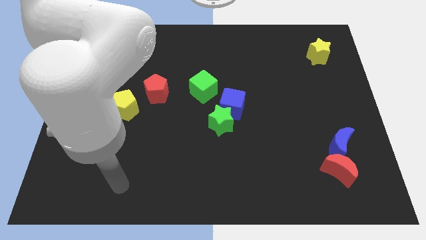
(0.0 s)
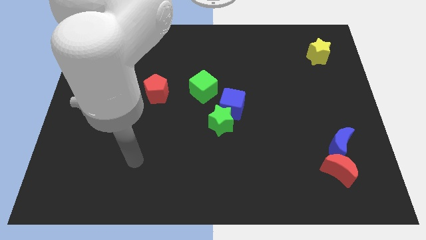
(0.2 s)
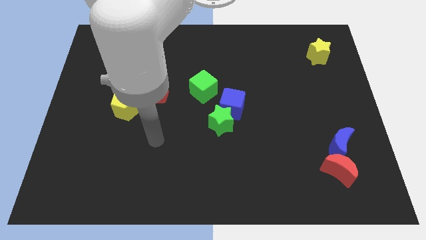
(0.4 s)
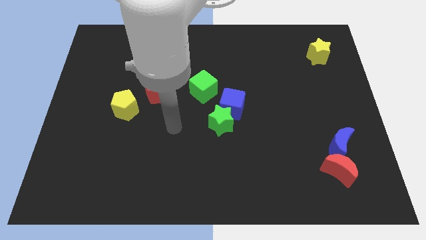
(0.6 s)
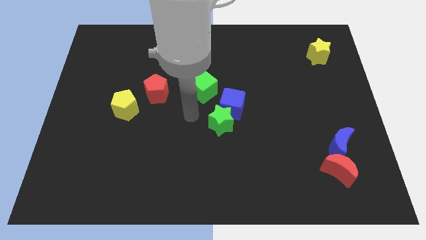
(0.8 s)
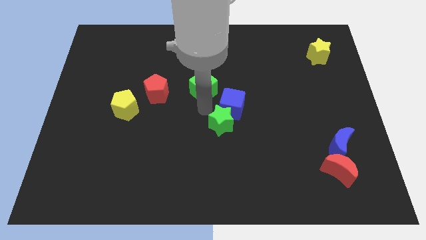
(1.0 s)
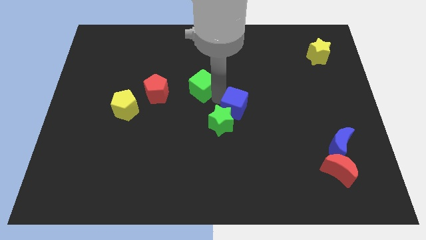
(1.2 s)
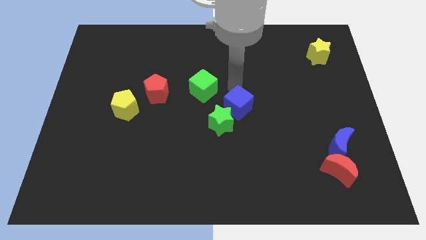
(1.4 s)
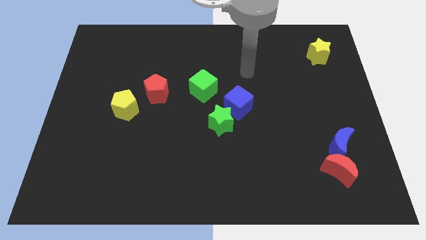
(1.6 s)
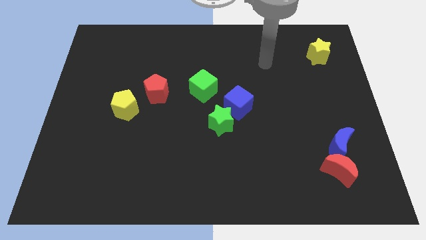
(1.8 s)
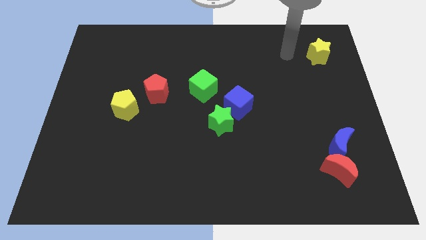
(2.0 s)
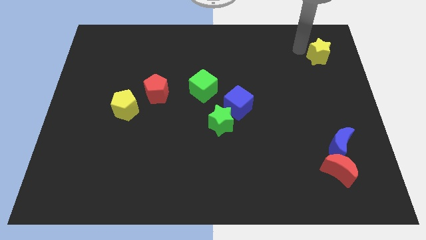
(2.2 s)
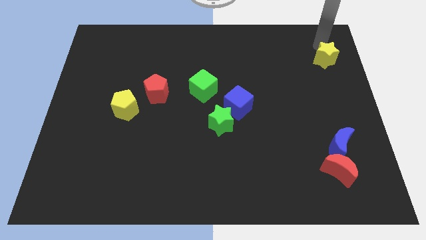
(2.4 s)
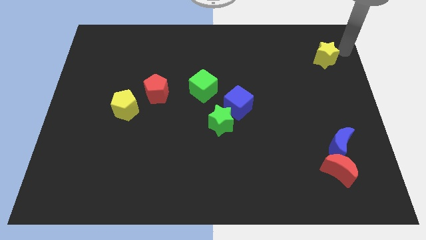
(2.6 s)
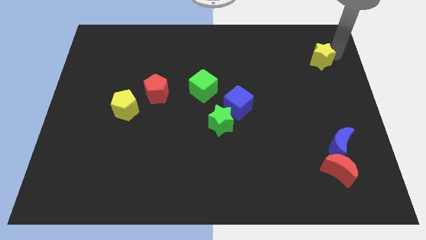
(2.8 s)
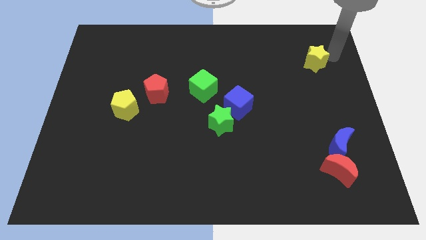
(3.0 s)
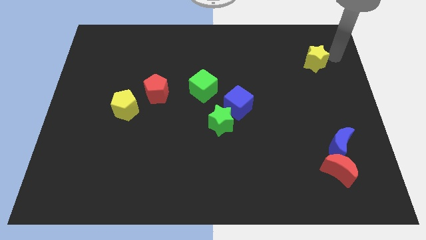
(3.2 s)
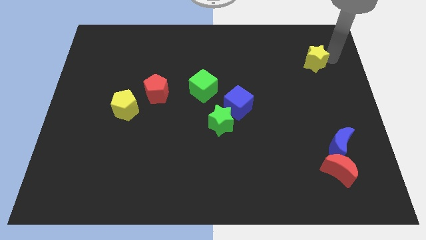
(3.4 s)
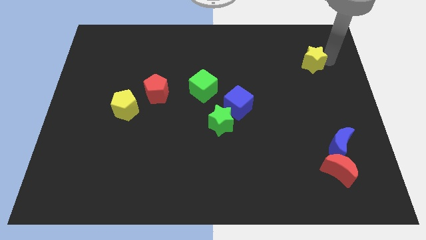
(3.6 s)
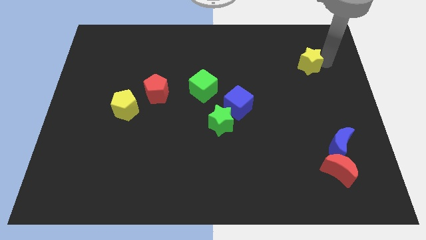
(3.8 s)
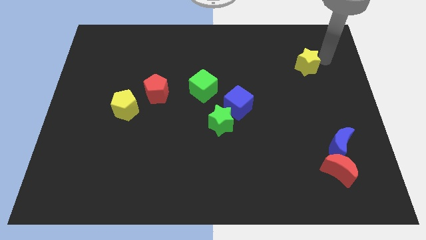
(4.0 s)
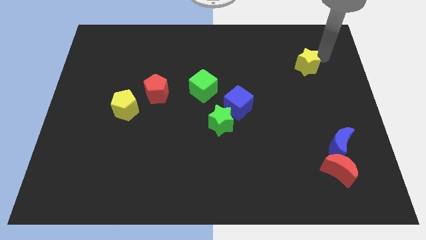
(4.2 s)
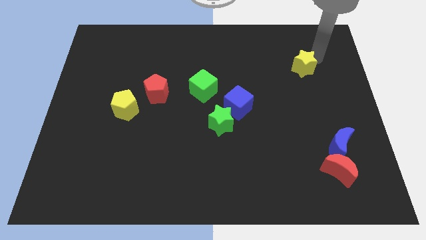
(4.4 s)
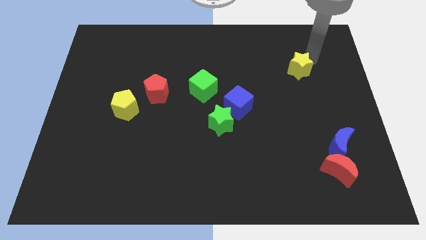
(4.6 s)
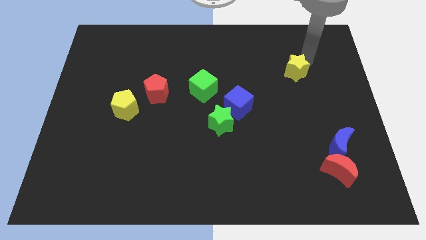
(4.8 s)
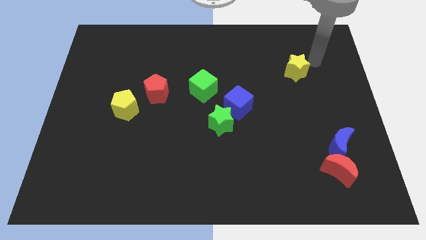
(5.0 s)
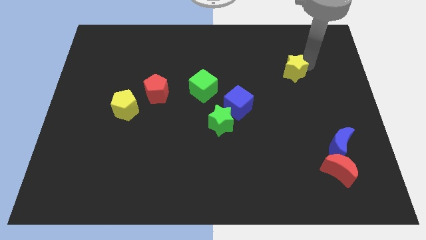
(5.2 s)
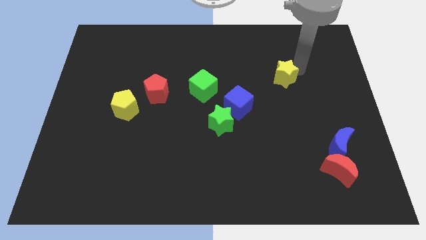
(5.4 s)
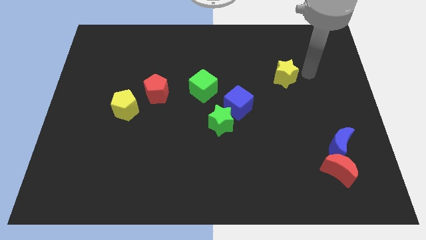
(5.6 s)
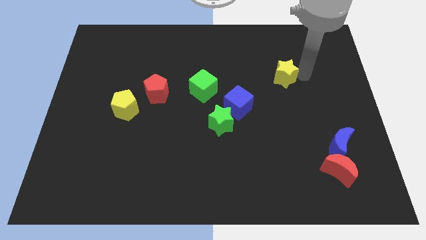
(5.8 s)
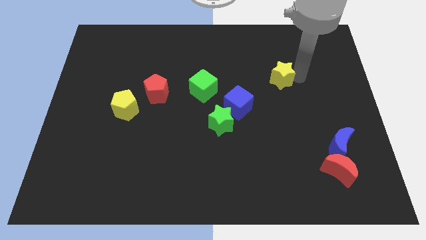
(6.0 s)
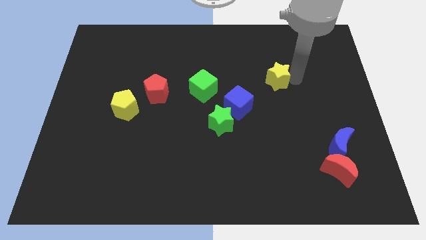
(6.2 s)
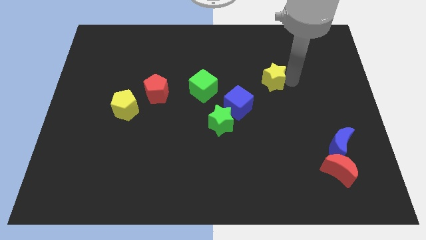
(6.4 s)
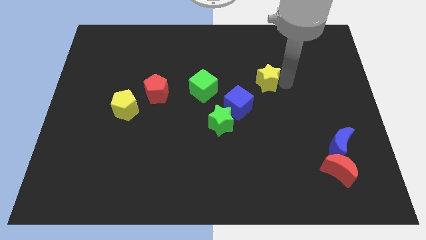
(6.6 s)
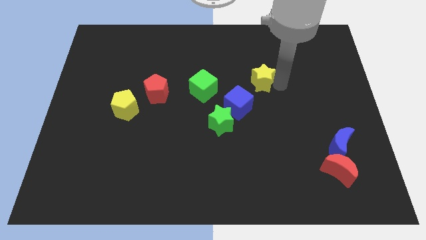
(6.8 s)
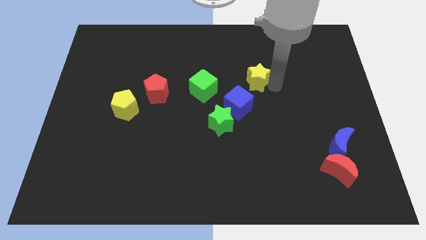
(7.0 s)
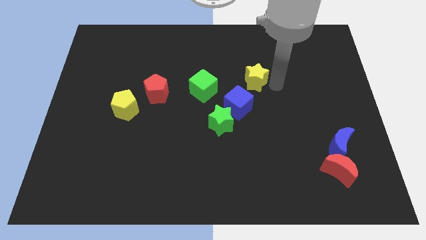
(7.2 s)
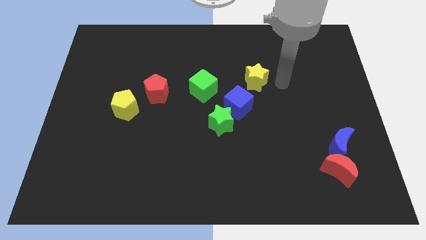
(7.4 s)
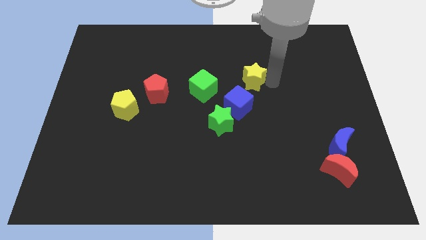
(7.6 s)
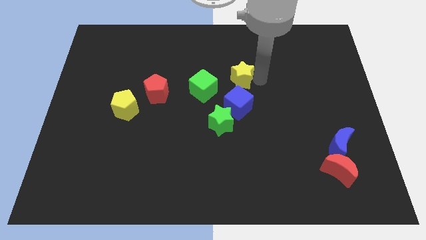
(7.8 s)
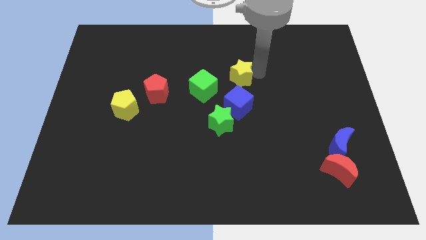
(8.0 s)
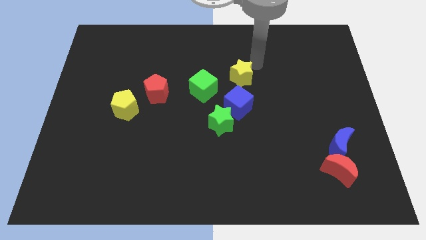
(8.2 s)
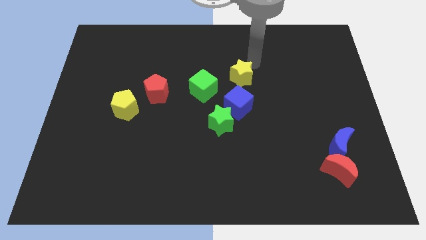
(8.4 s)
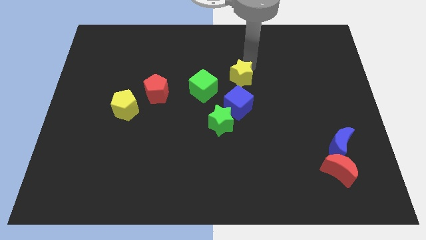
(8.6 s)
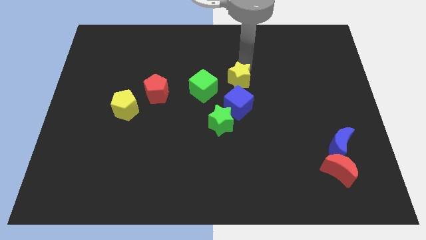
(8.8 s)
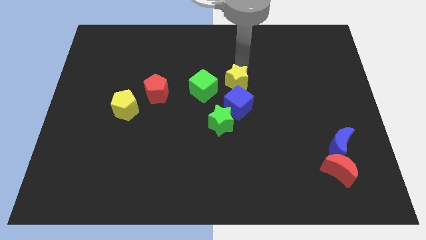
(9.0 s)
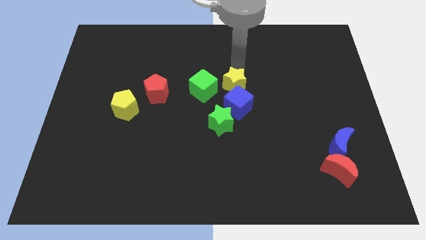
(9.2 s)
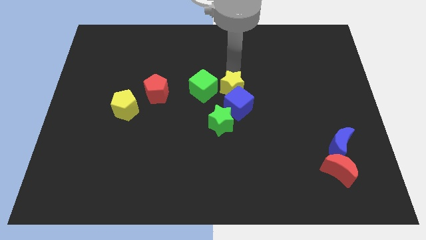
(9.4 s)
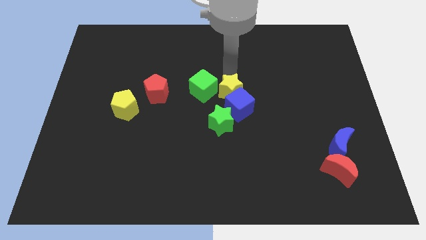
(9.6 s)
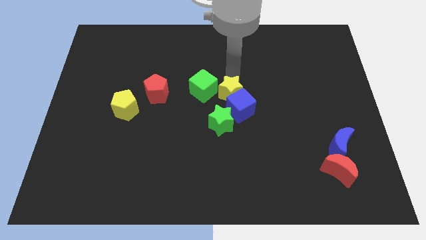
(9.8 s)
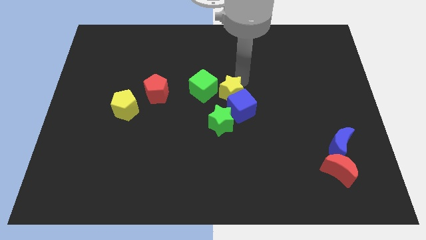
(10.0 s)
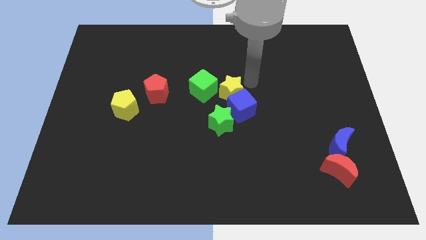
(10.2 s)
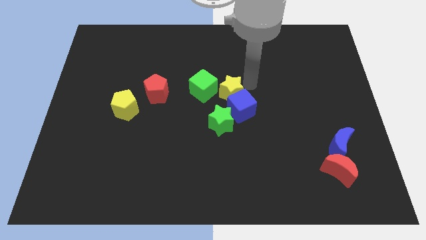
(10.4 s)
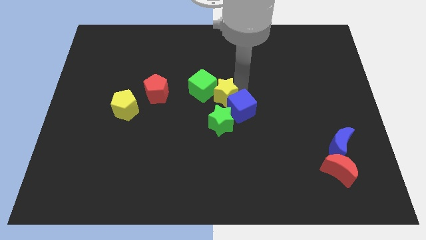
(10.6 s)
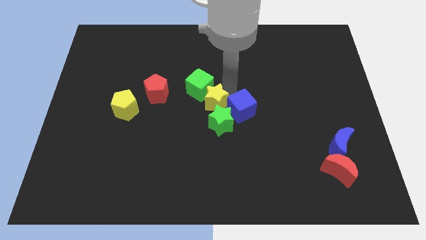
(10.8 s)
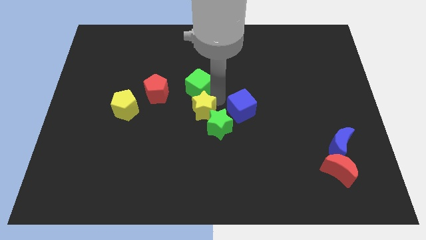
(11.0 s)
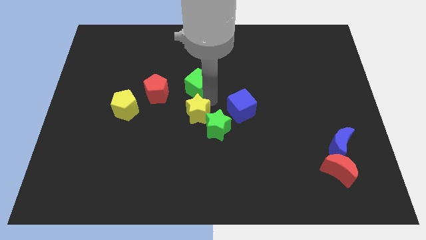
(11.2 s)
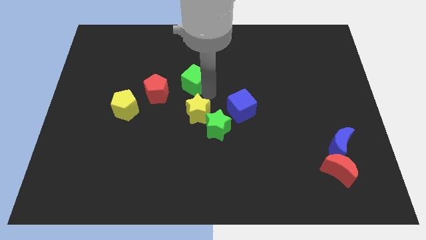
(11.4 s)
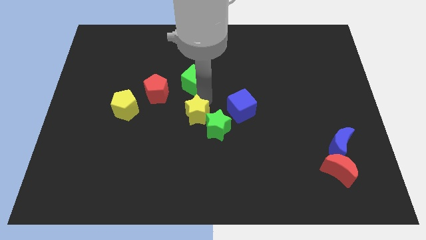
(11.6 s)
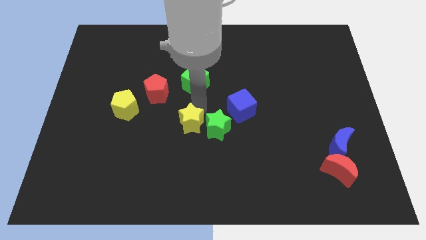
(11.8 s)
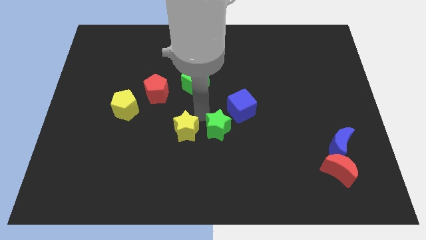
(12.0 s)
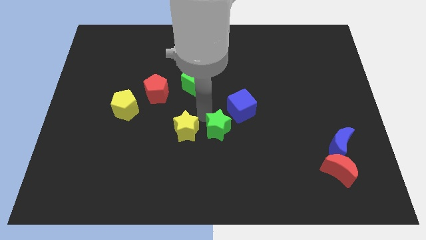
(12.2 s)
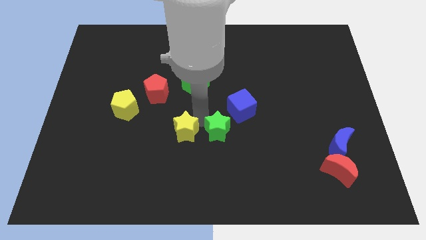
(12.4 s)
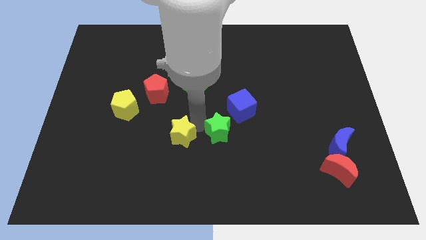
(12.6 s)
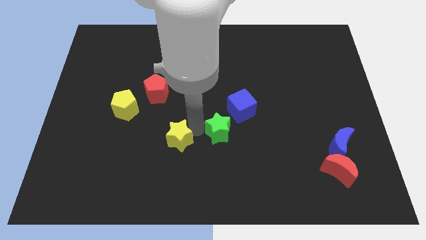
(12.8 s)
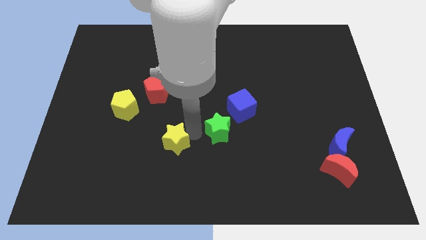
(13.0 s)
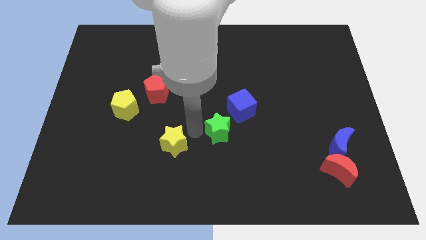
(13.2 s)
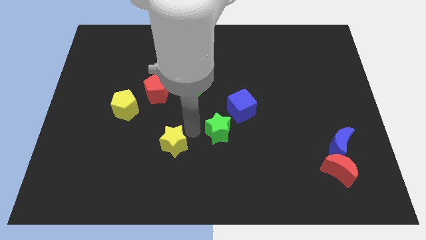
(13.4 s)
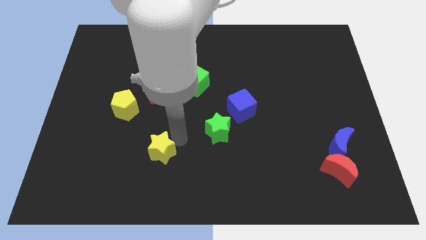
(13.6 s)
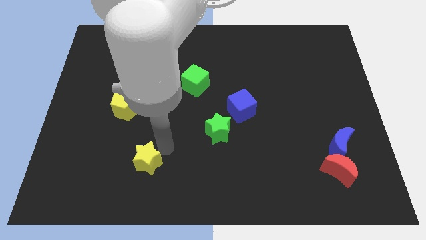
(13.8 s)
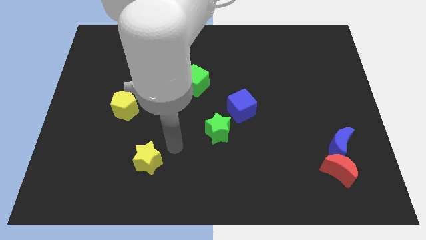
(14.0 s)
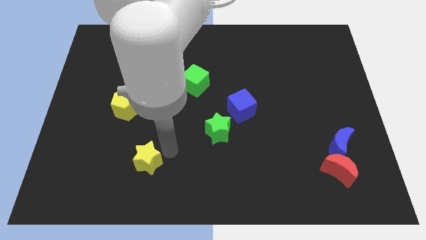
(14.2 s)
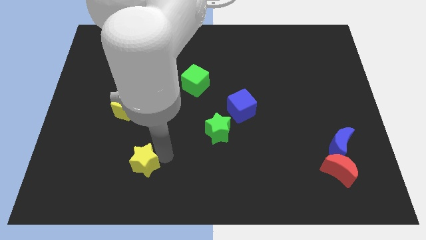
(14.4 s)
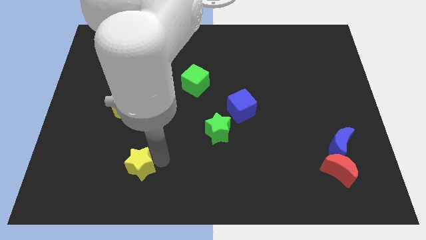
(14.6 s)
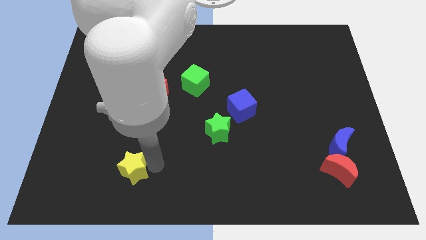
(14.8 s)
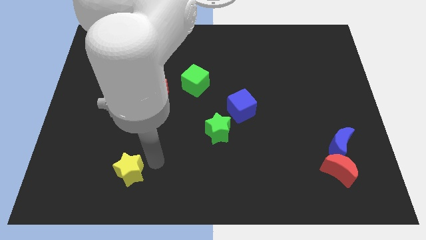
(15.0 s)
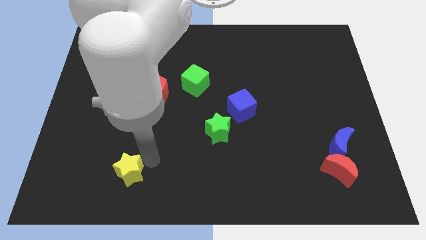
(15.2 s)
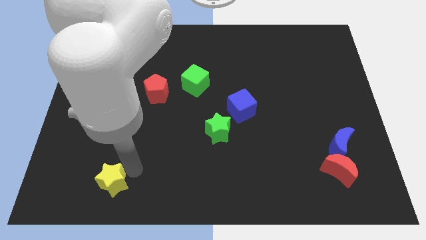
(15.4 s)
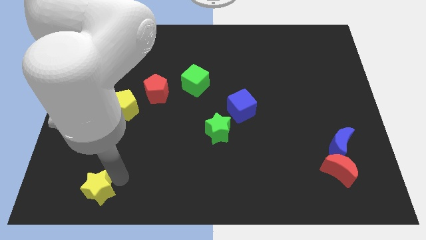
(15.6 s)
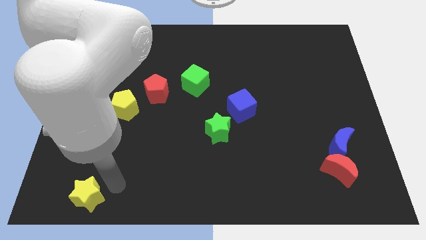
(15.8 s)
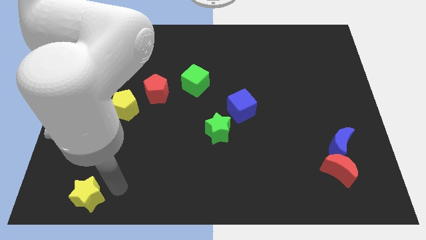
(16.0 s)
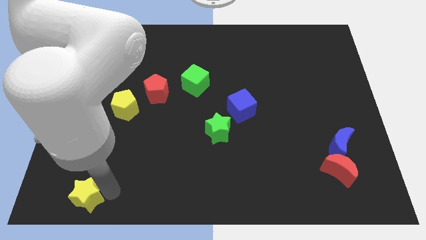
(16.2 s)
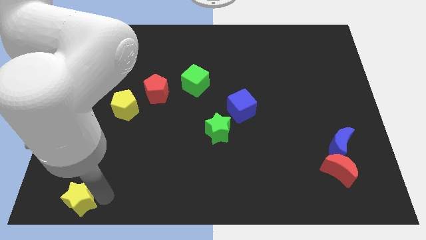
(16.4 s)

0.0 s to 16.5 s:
push the yellow star to the lower left corner
